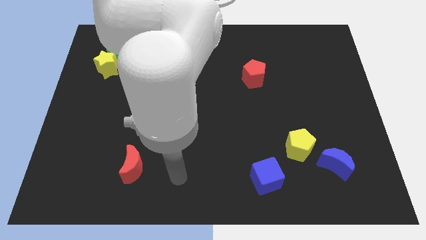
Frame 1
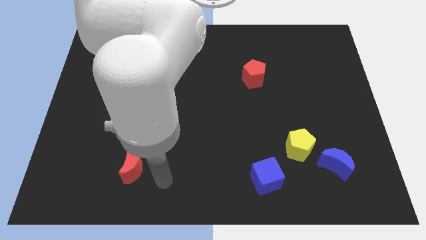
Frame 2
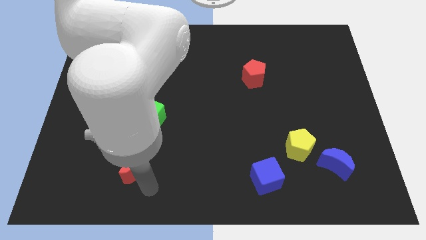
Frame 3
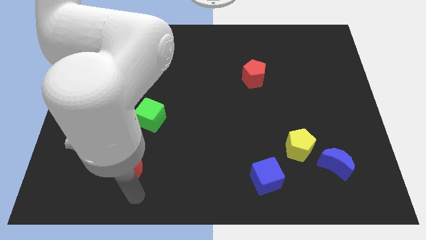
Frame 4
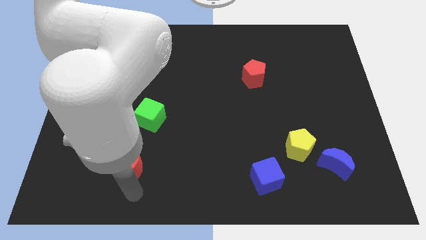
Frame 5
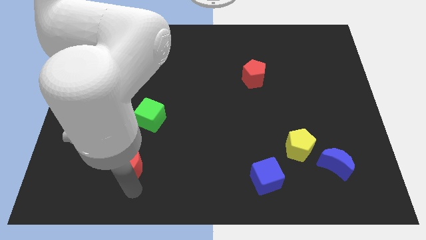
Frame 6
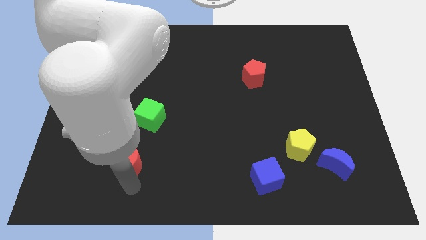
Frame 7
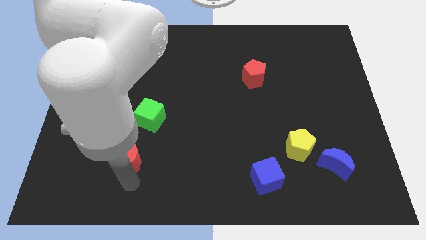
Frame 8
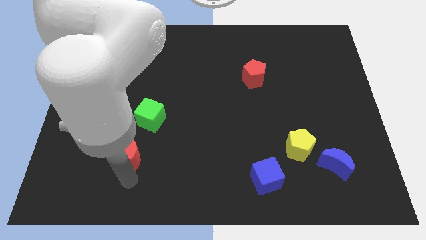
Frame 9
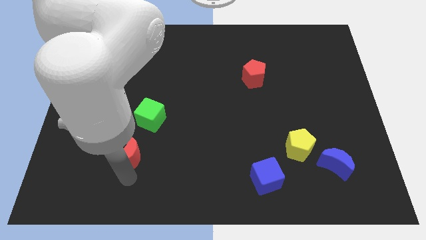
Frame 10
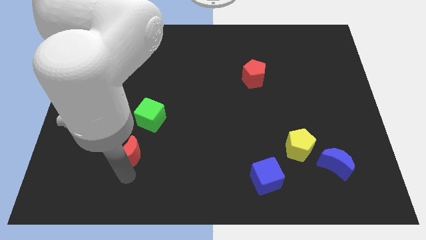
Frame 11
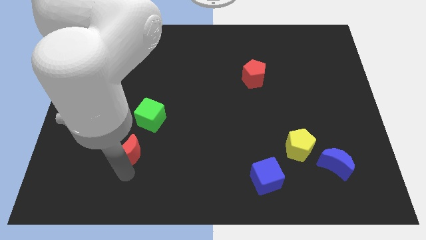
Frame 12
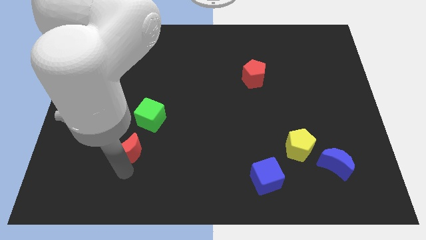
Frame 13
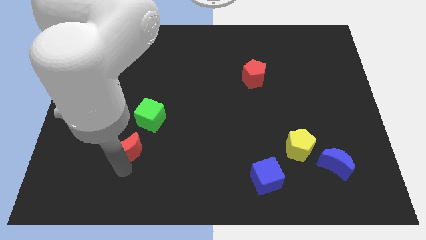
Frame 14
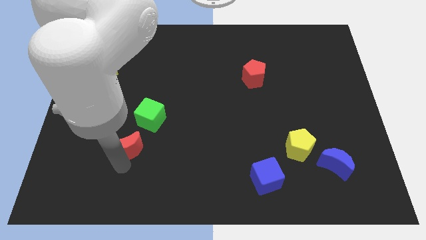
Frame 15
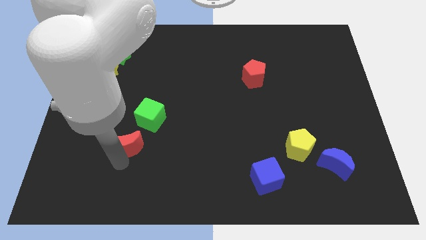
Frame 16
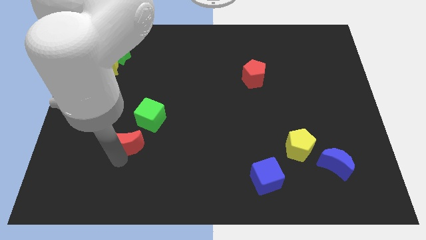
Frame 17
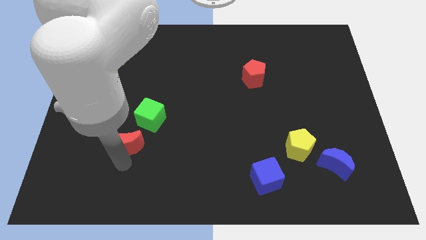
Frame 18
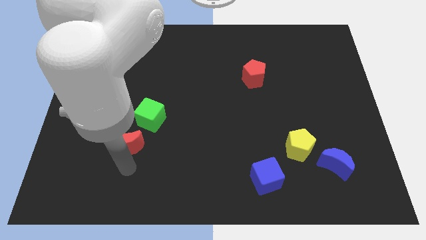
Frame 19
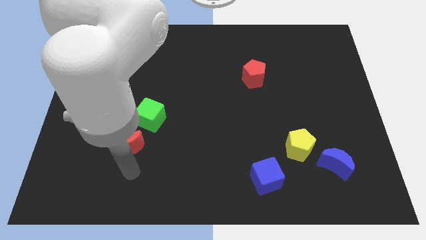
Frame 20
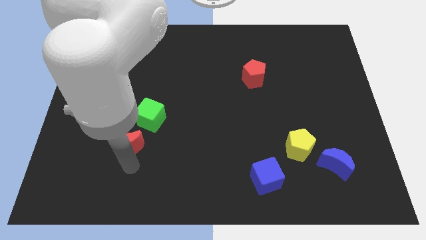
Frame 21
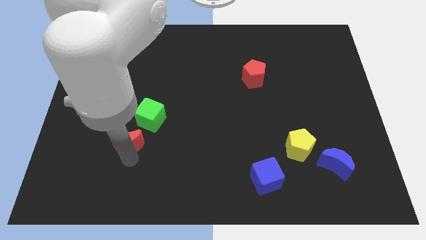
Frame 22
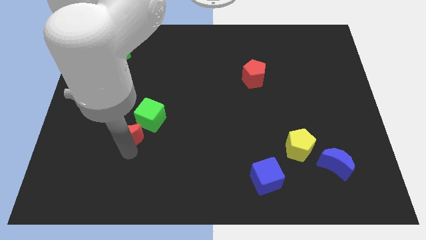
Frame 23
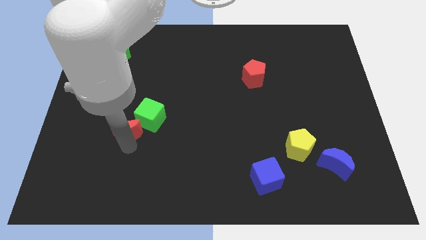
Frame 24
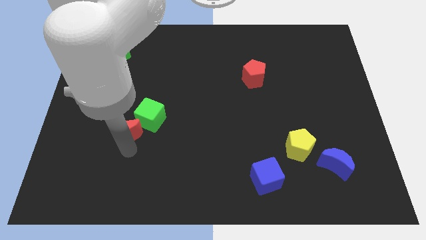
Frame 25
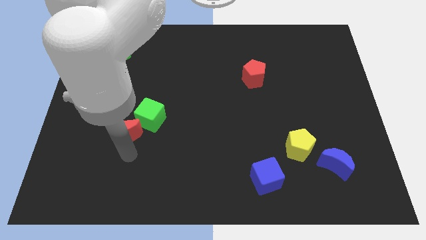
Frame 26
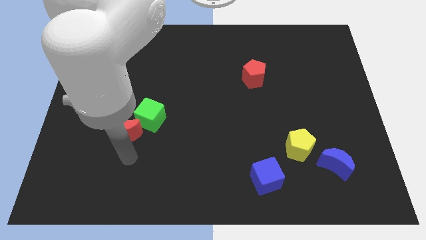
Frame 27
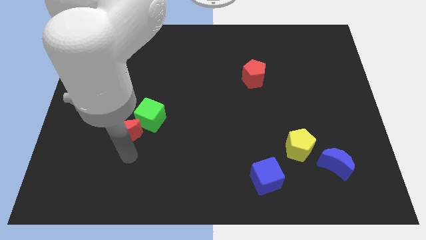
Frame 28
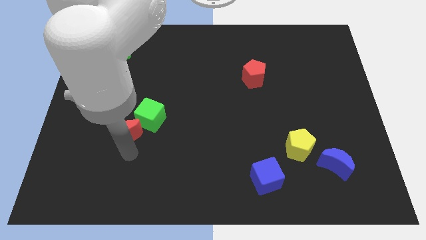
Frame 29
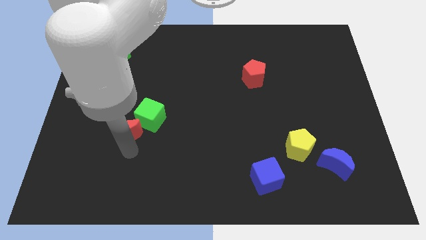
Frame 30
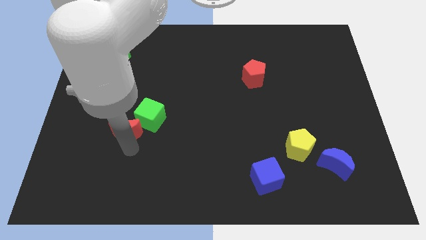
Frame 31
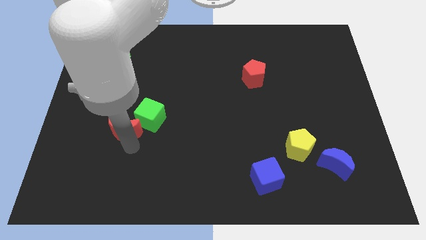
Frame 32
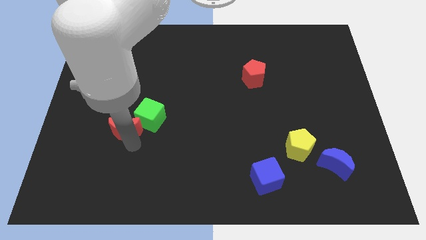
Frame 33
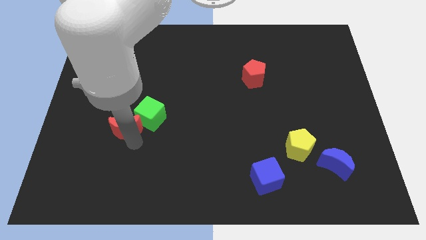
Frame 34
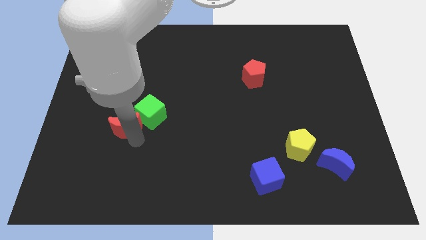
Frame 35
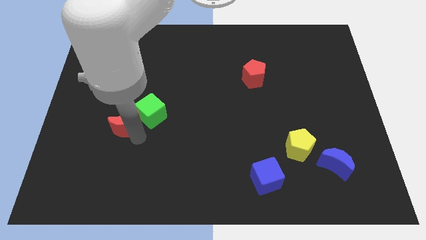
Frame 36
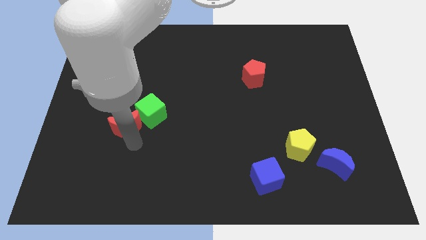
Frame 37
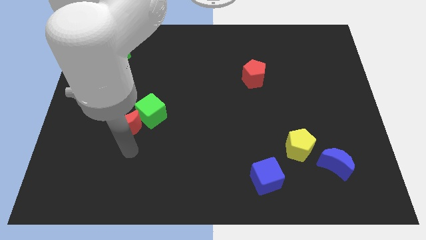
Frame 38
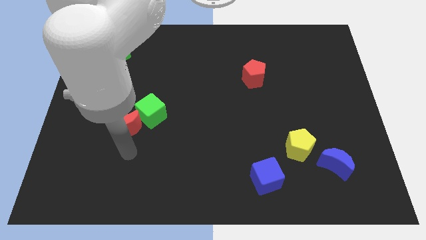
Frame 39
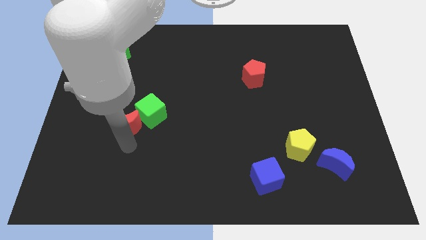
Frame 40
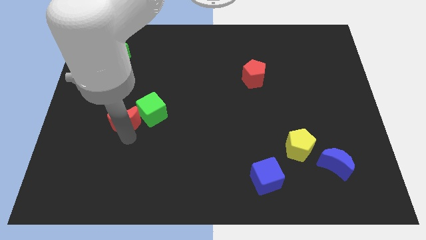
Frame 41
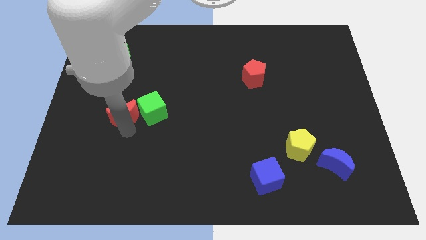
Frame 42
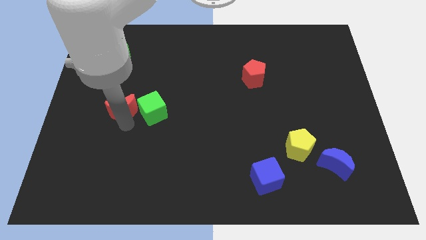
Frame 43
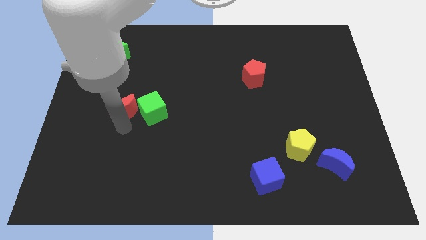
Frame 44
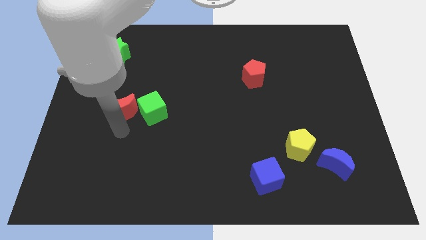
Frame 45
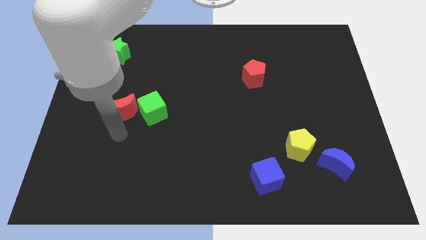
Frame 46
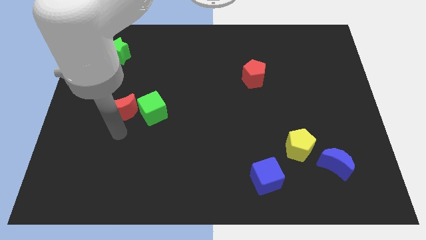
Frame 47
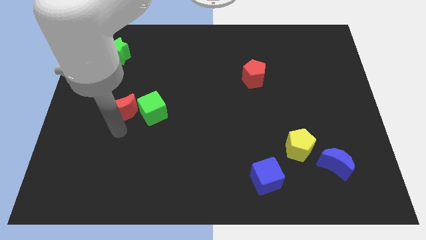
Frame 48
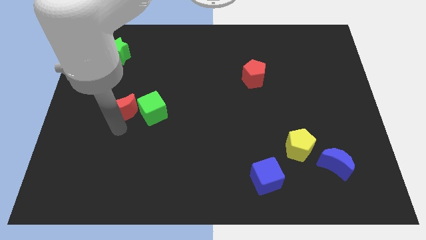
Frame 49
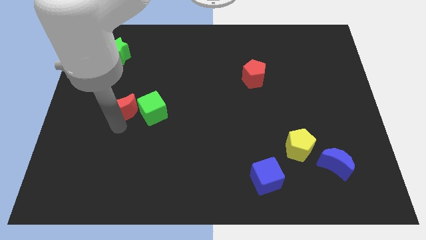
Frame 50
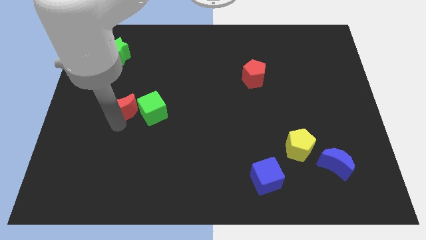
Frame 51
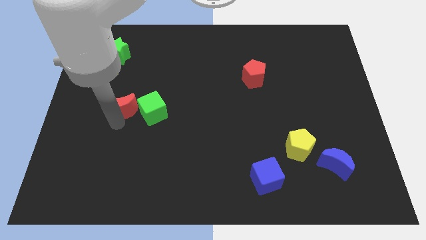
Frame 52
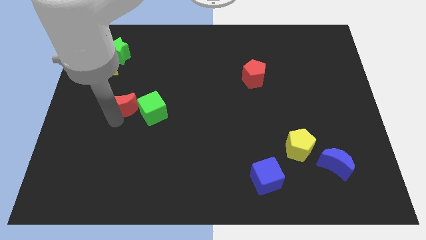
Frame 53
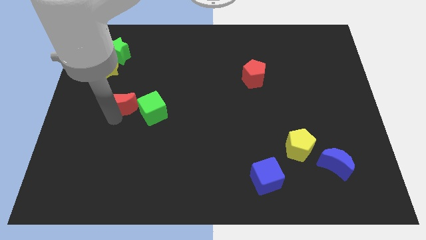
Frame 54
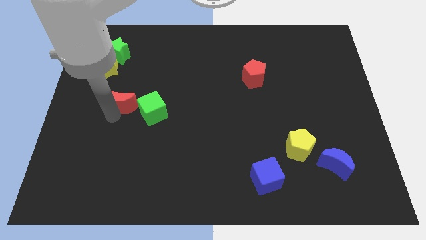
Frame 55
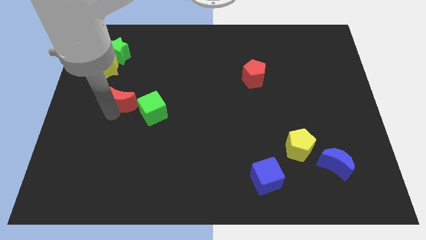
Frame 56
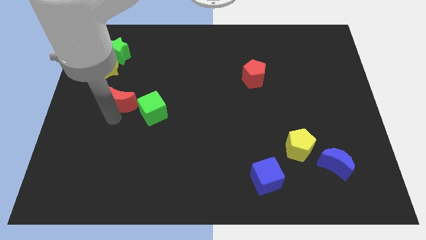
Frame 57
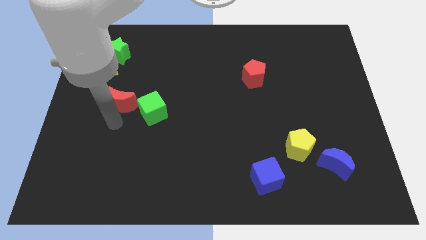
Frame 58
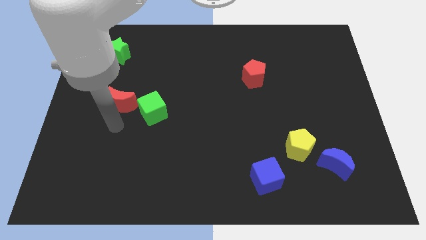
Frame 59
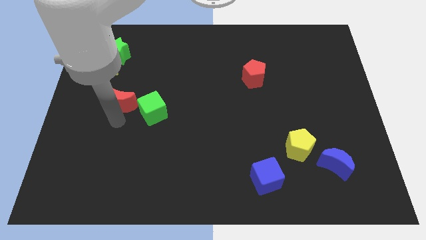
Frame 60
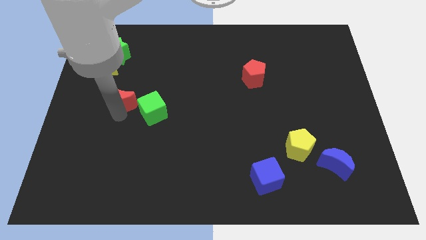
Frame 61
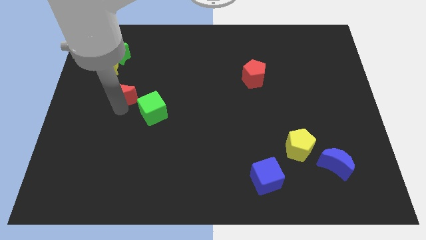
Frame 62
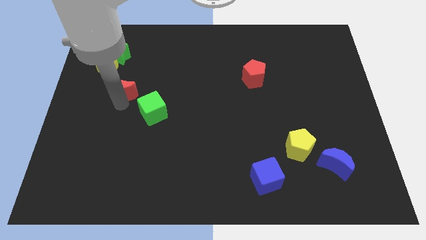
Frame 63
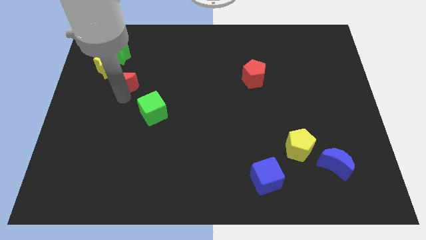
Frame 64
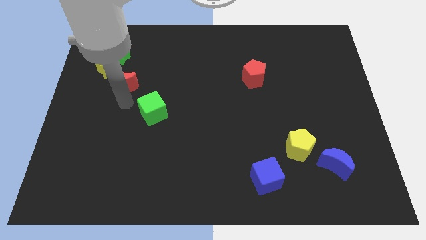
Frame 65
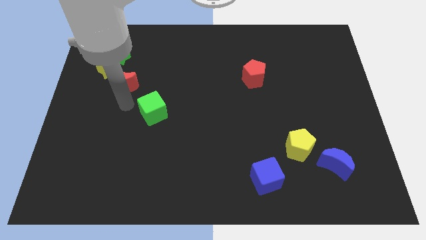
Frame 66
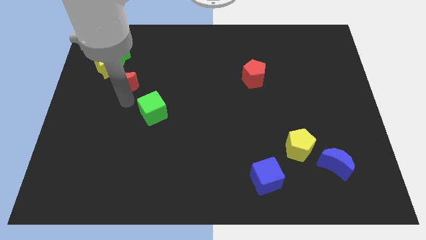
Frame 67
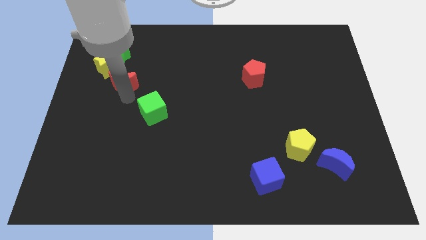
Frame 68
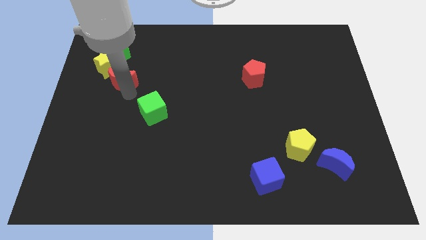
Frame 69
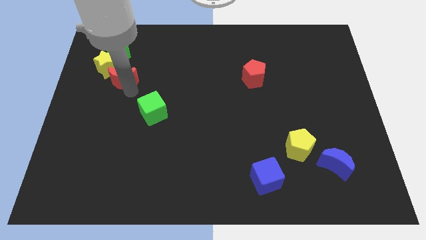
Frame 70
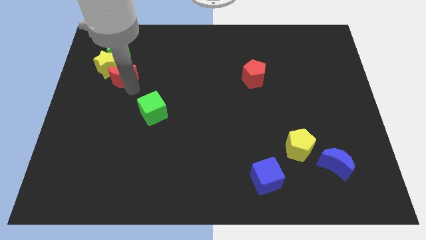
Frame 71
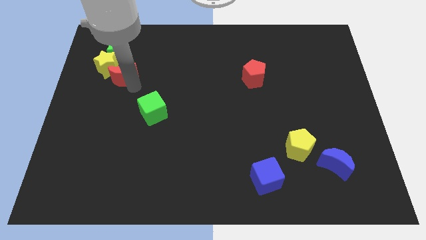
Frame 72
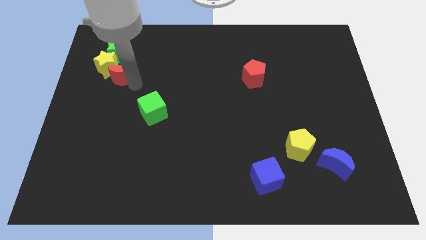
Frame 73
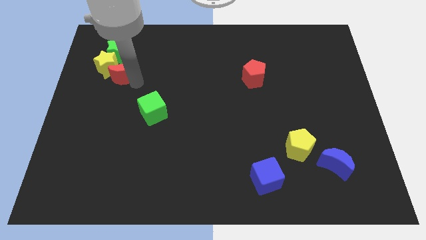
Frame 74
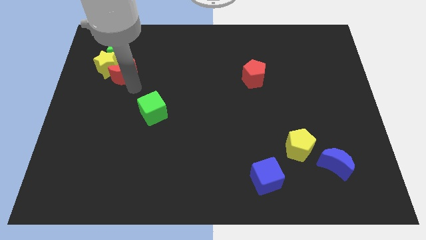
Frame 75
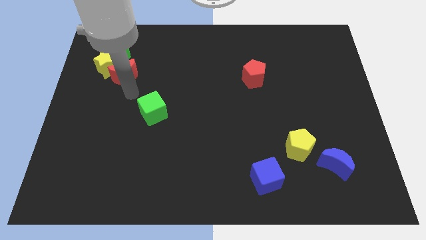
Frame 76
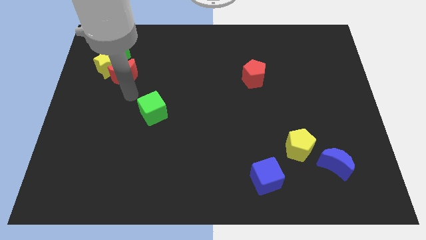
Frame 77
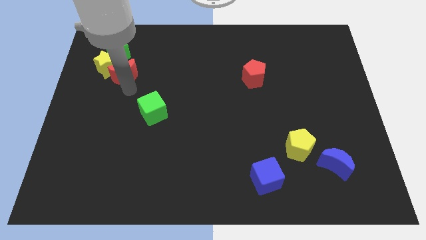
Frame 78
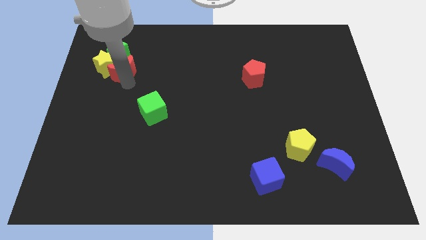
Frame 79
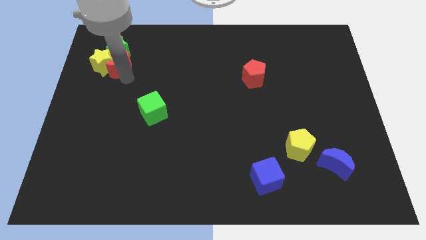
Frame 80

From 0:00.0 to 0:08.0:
slide the red moon towards the green star
